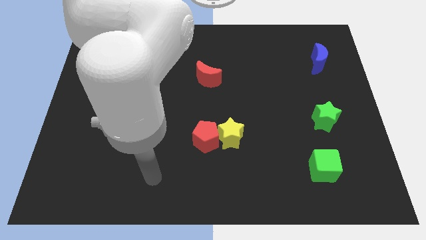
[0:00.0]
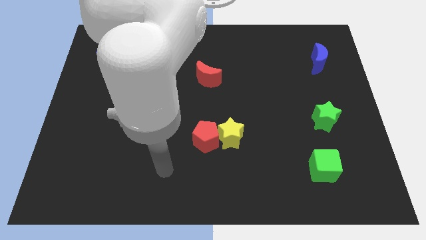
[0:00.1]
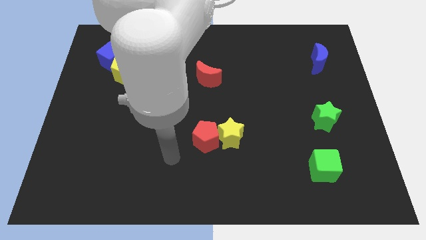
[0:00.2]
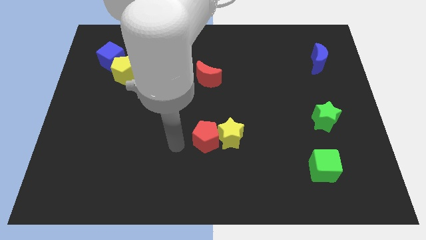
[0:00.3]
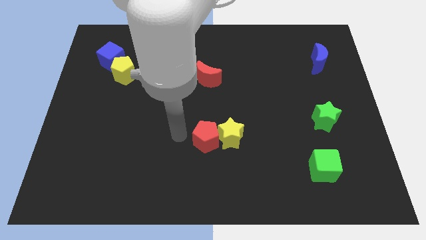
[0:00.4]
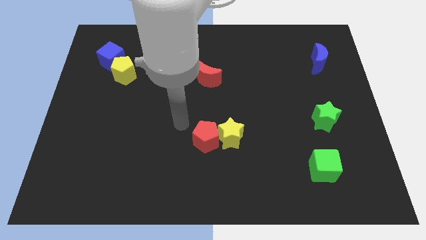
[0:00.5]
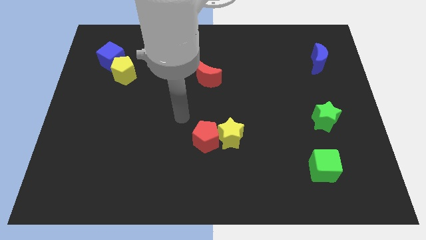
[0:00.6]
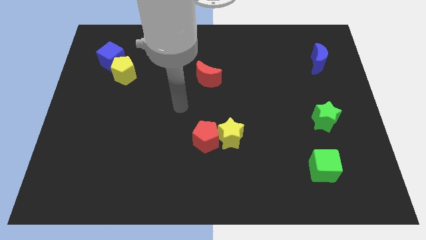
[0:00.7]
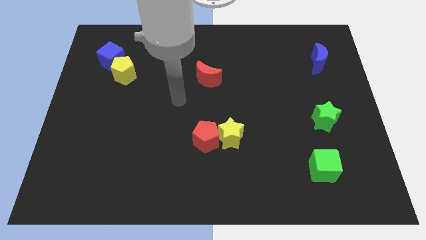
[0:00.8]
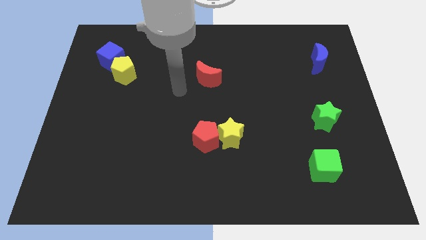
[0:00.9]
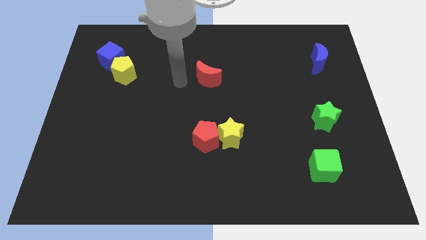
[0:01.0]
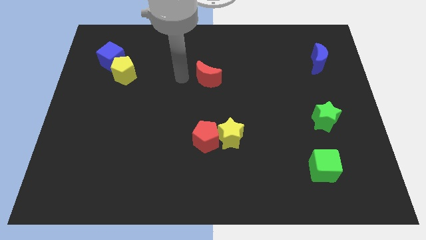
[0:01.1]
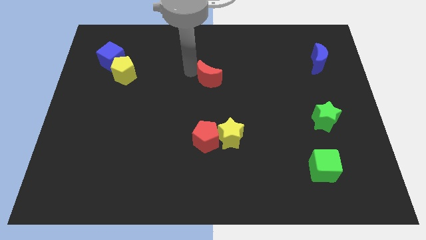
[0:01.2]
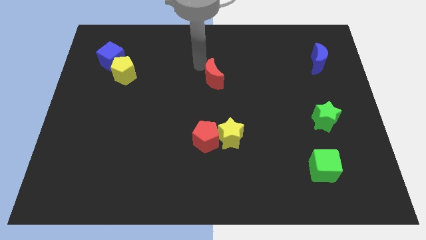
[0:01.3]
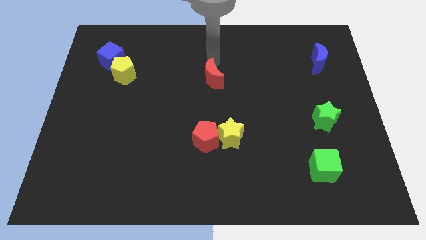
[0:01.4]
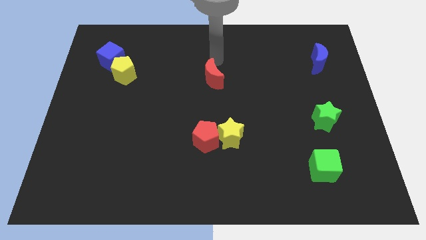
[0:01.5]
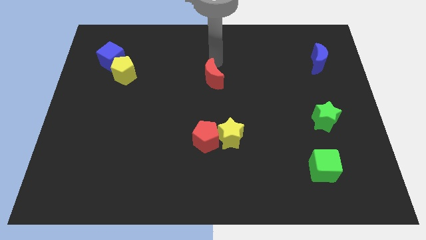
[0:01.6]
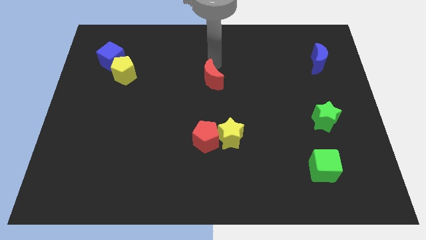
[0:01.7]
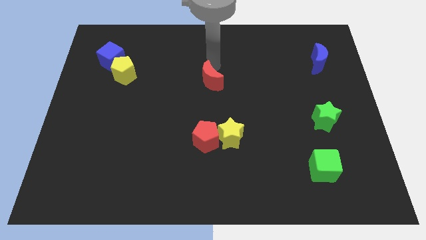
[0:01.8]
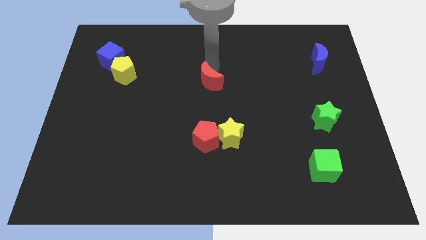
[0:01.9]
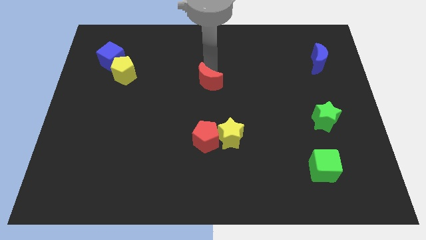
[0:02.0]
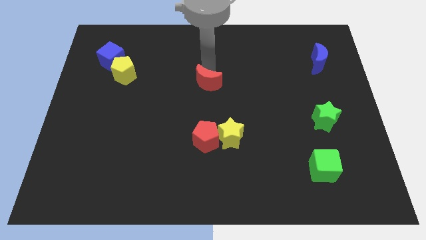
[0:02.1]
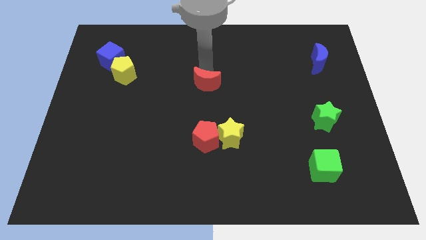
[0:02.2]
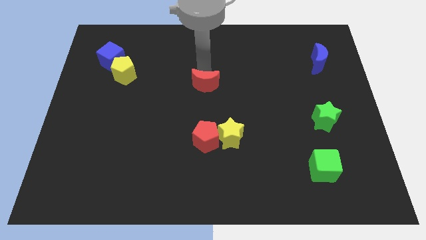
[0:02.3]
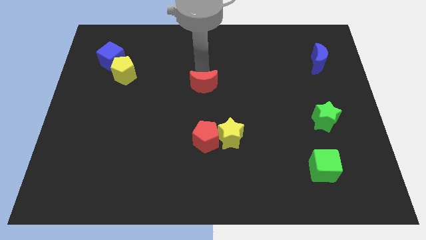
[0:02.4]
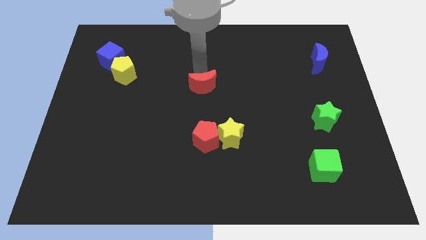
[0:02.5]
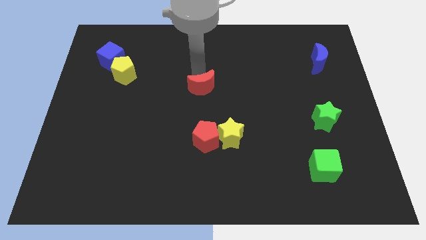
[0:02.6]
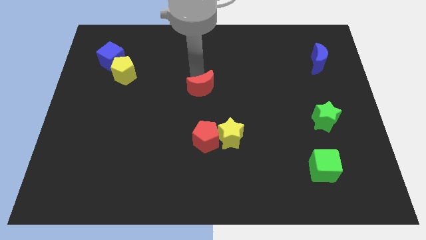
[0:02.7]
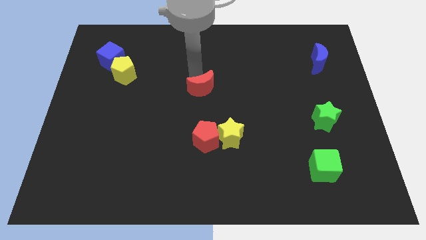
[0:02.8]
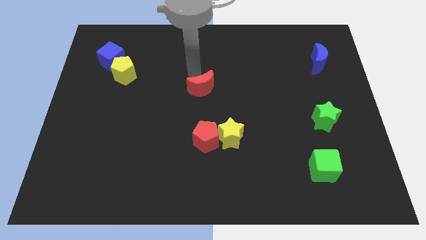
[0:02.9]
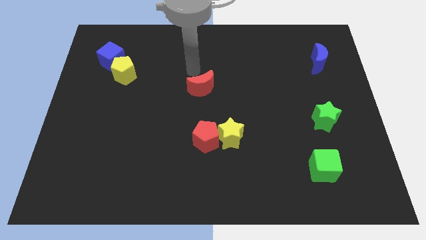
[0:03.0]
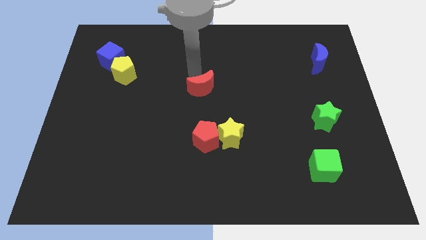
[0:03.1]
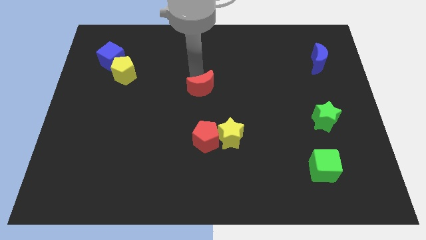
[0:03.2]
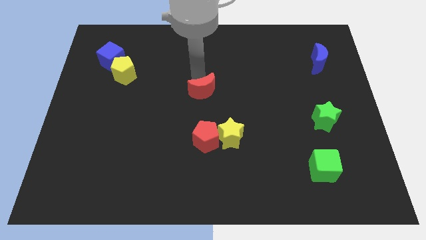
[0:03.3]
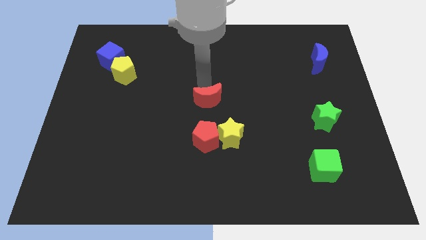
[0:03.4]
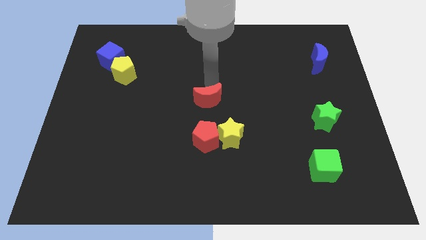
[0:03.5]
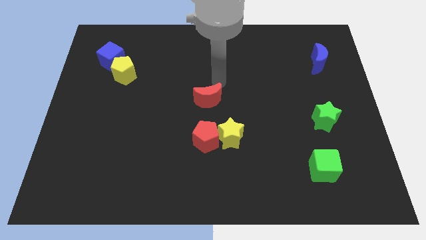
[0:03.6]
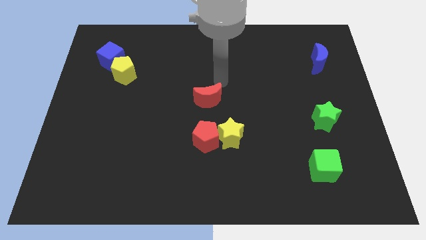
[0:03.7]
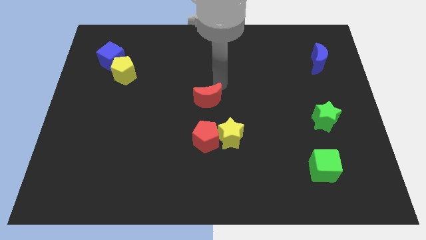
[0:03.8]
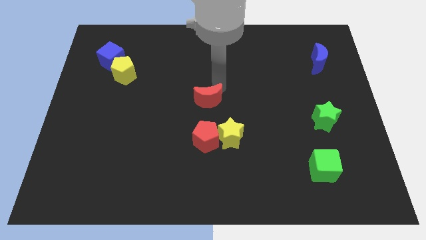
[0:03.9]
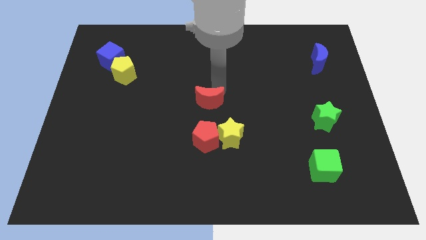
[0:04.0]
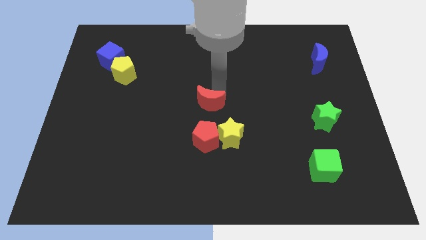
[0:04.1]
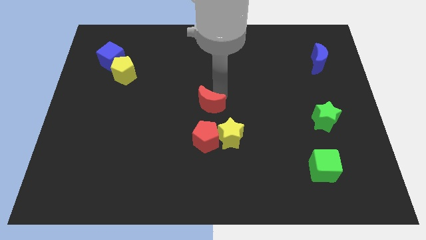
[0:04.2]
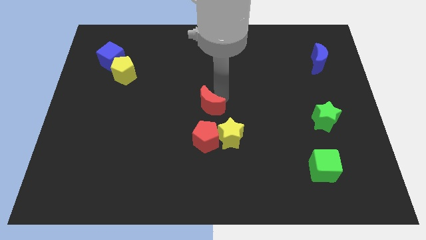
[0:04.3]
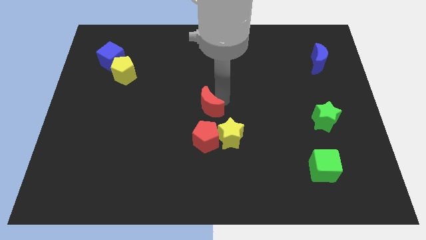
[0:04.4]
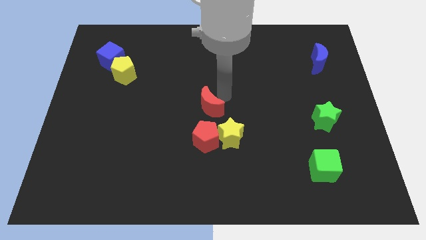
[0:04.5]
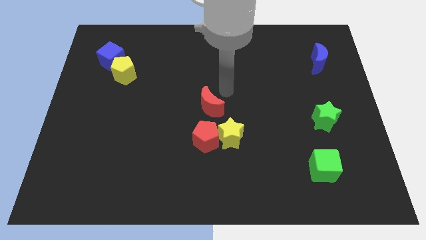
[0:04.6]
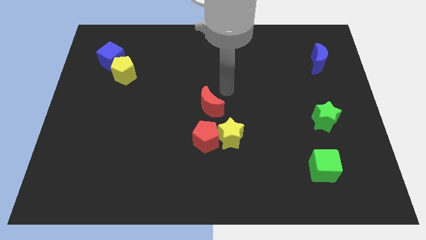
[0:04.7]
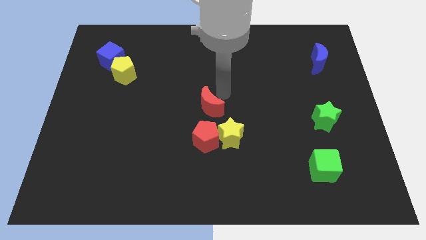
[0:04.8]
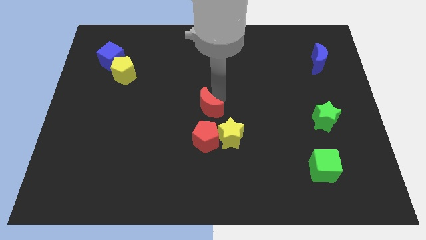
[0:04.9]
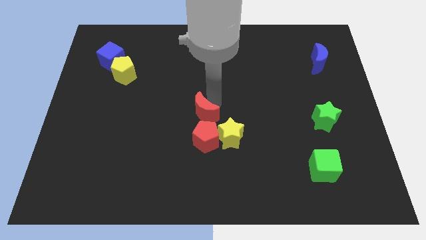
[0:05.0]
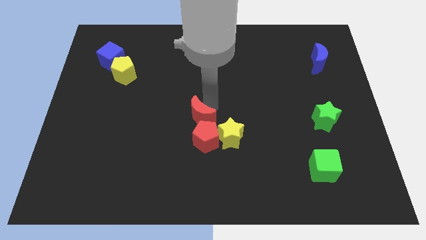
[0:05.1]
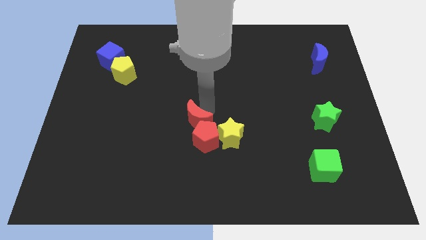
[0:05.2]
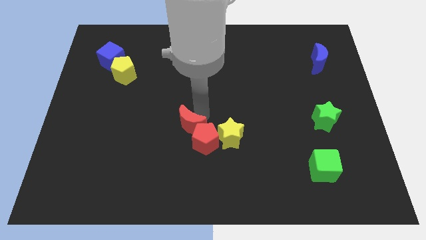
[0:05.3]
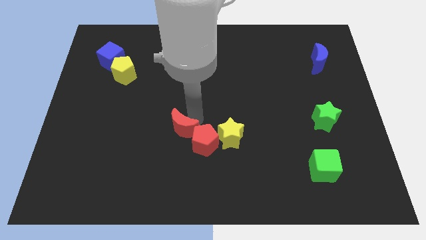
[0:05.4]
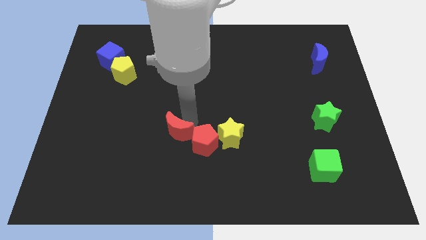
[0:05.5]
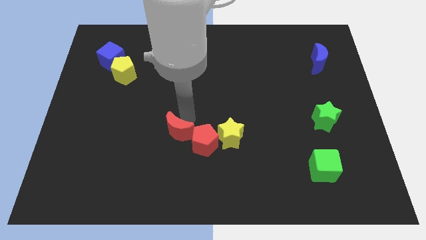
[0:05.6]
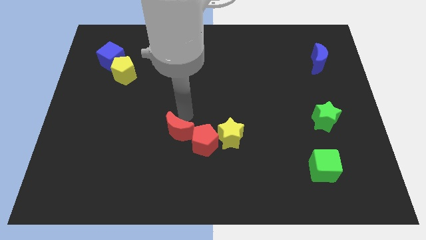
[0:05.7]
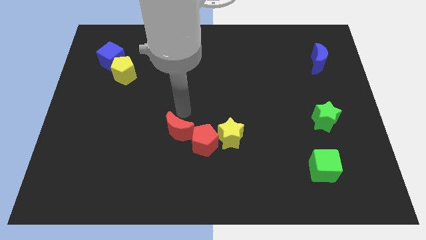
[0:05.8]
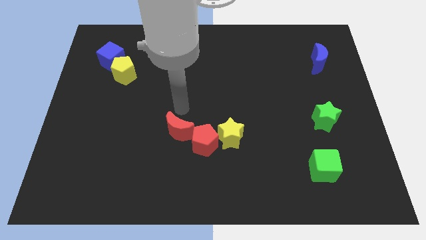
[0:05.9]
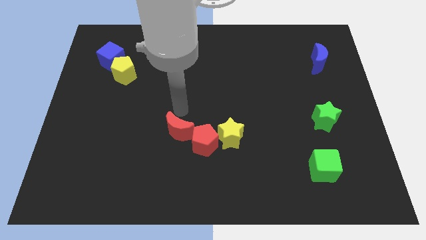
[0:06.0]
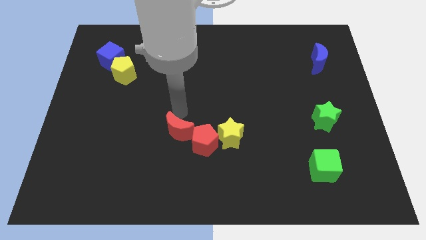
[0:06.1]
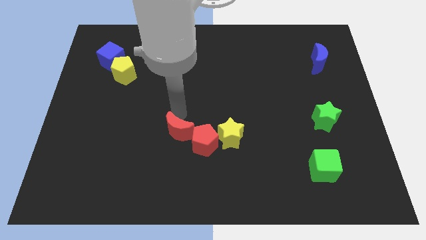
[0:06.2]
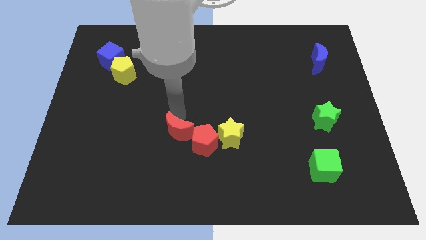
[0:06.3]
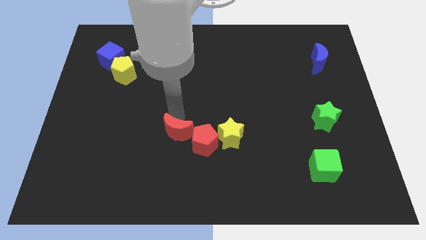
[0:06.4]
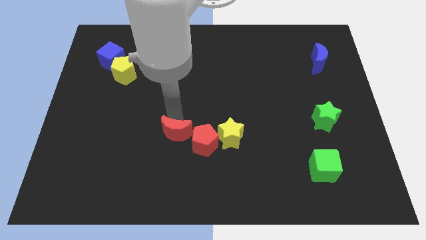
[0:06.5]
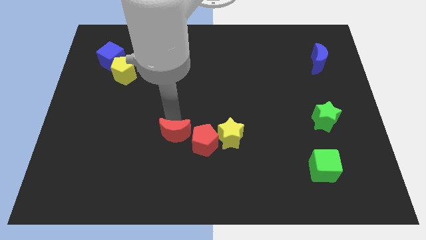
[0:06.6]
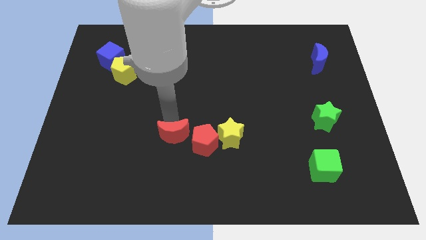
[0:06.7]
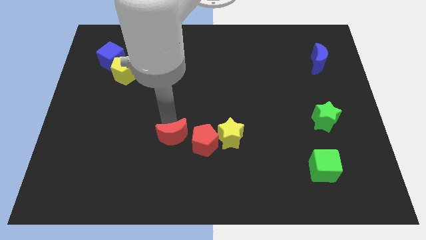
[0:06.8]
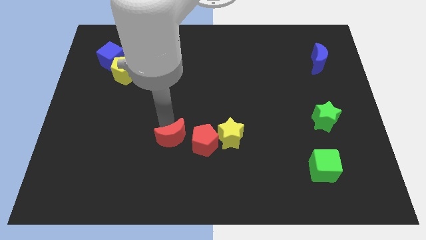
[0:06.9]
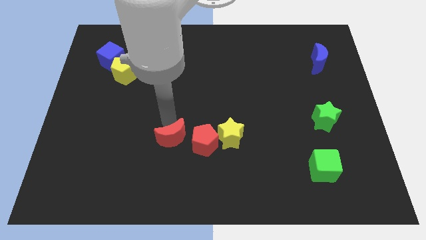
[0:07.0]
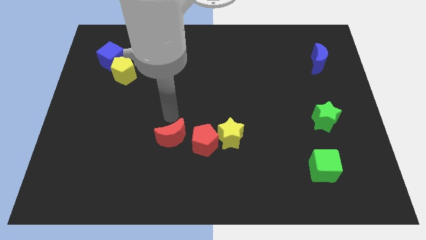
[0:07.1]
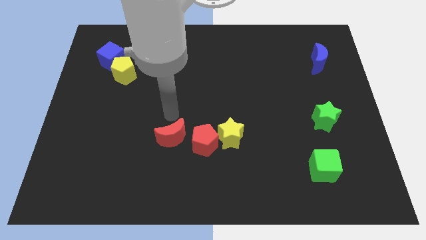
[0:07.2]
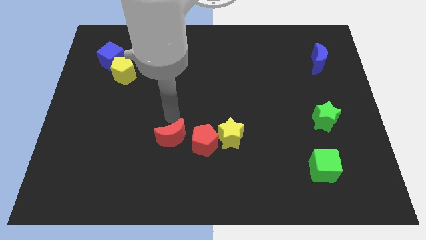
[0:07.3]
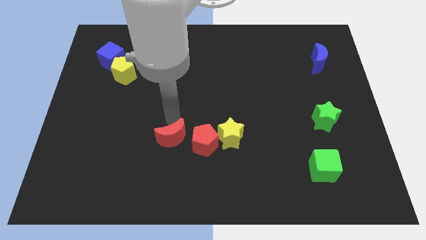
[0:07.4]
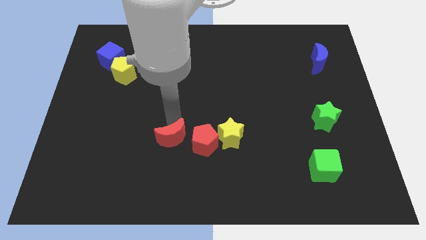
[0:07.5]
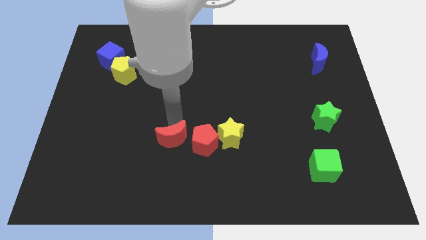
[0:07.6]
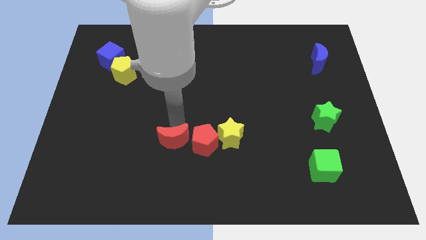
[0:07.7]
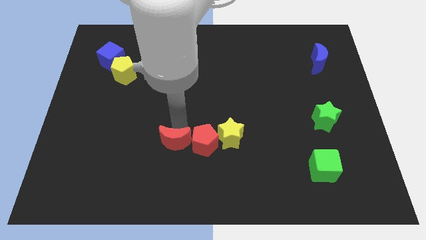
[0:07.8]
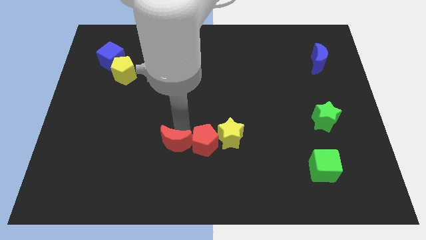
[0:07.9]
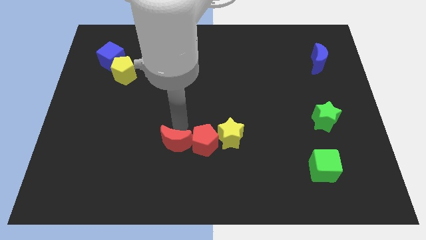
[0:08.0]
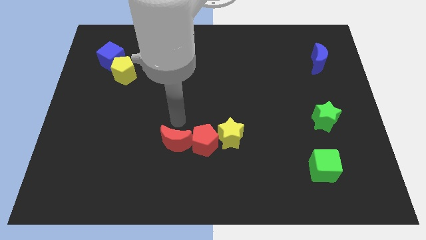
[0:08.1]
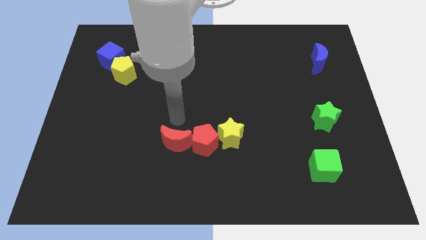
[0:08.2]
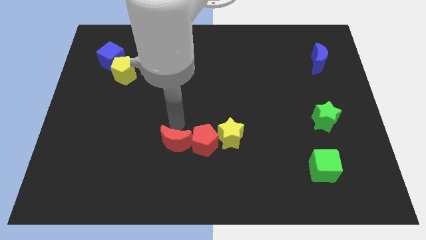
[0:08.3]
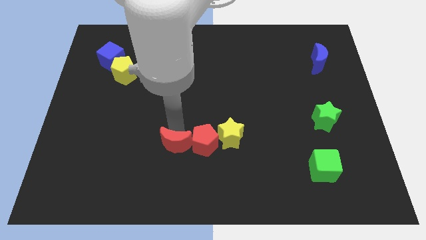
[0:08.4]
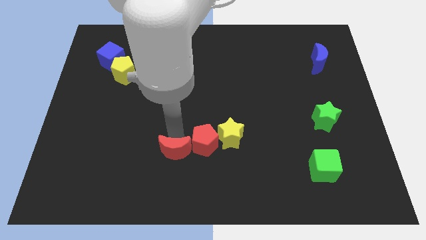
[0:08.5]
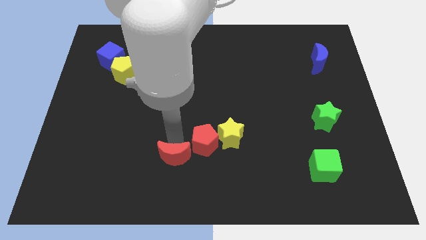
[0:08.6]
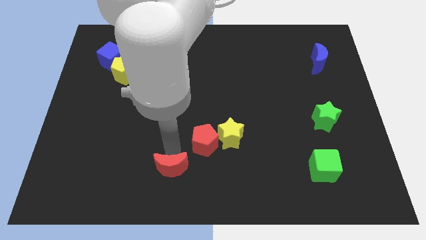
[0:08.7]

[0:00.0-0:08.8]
put the red moon to the bottom
